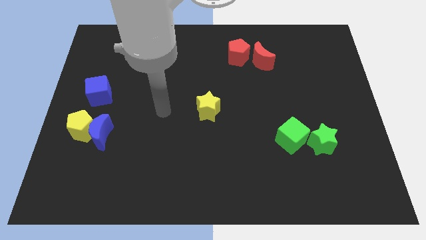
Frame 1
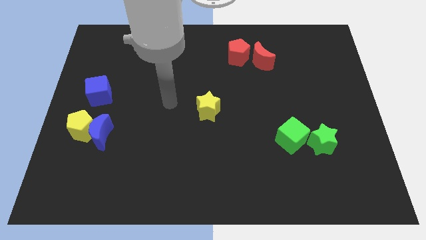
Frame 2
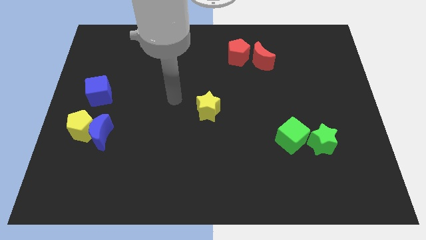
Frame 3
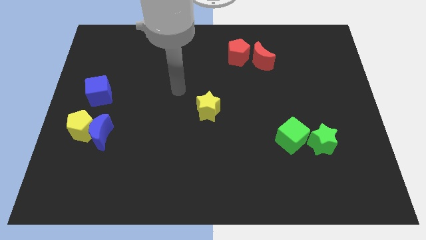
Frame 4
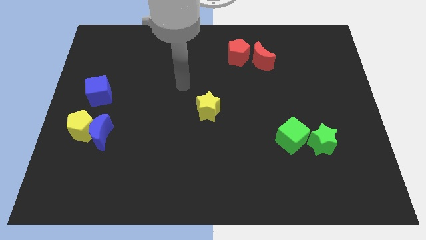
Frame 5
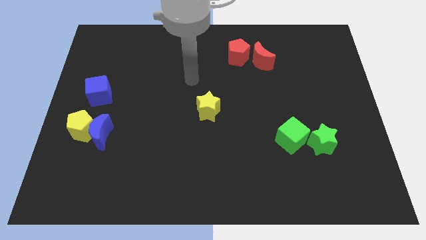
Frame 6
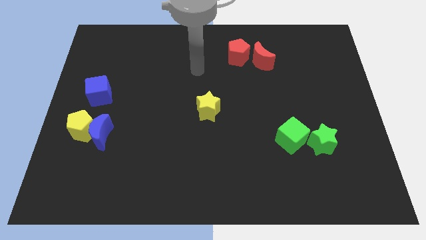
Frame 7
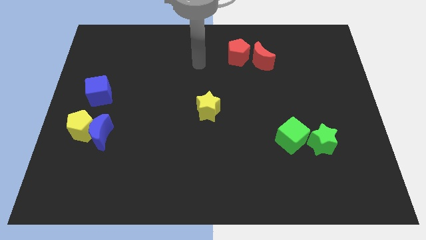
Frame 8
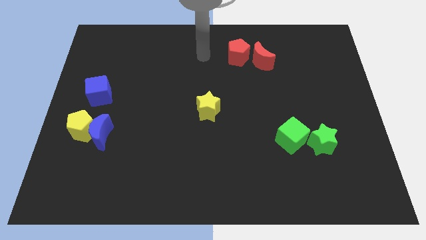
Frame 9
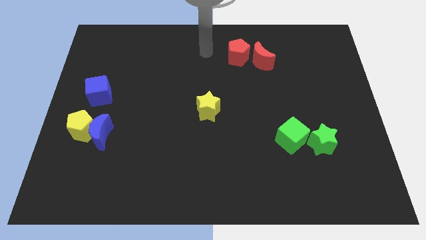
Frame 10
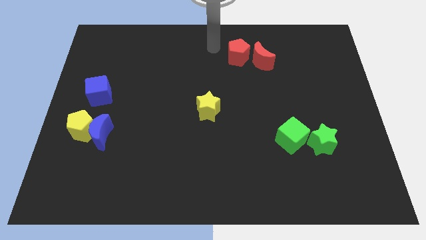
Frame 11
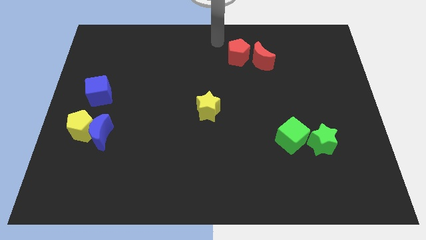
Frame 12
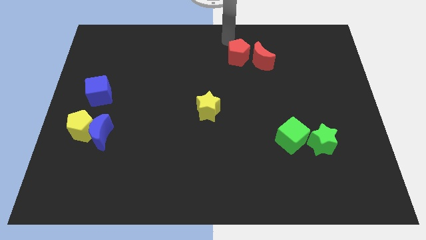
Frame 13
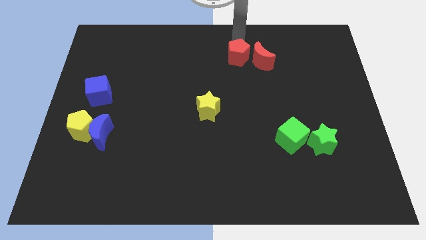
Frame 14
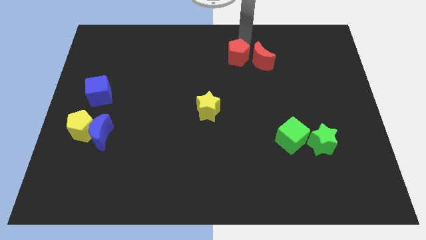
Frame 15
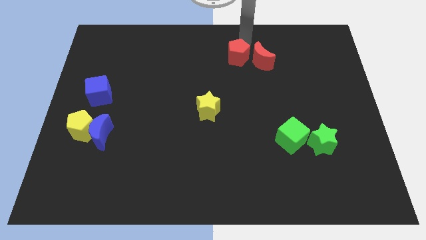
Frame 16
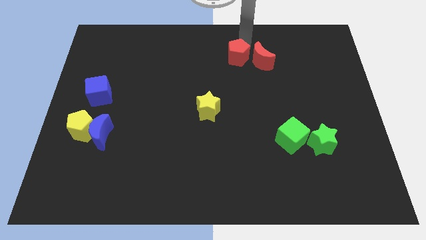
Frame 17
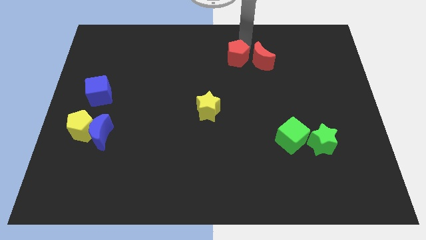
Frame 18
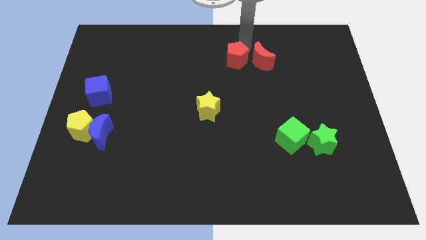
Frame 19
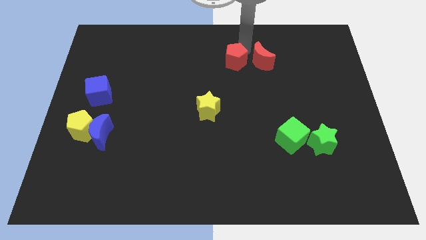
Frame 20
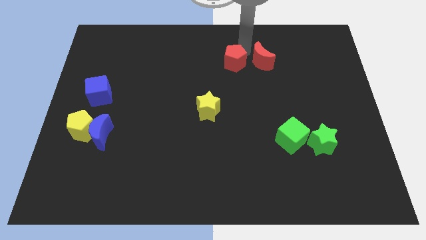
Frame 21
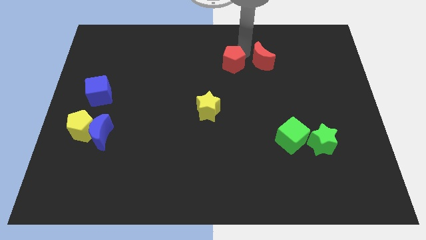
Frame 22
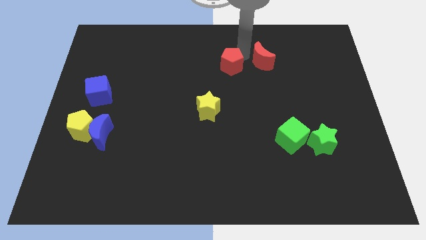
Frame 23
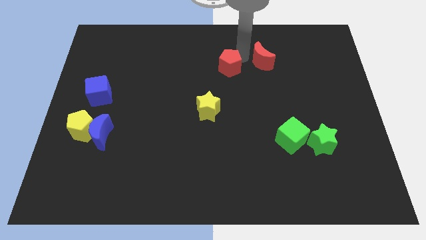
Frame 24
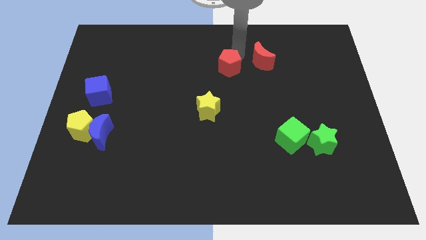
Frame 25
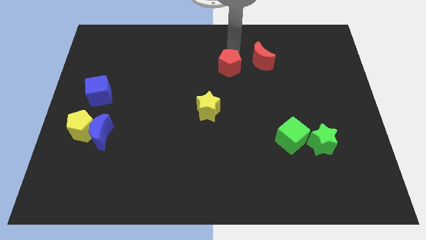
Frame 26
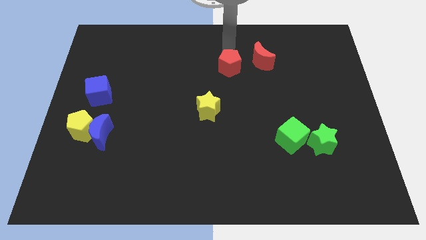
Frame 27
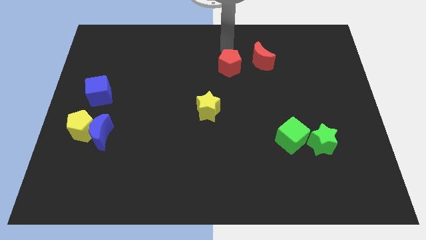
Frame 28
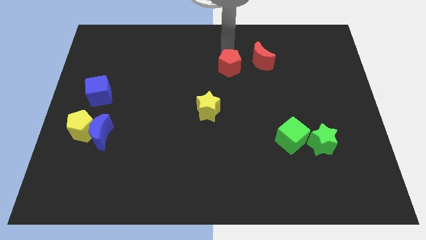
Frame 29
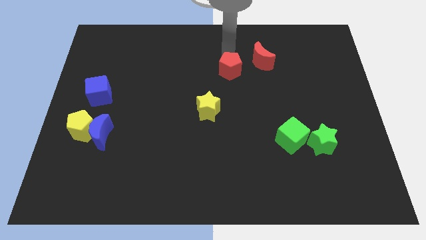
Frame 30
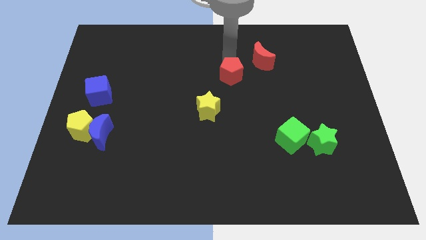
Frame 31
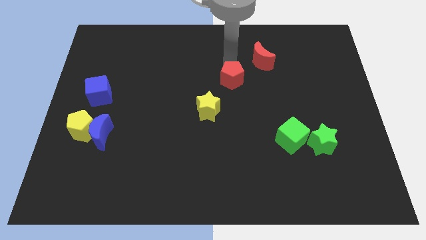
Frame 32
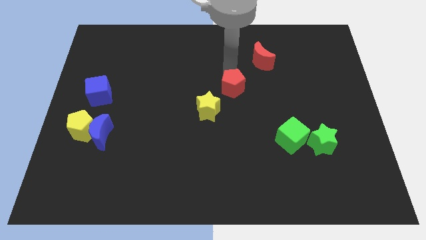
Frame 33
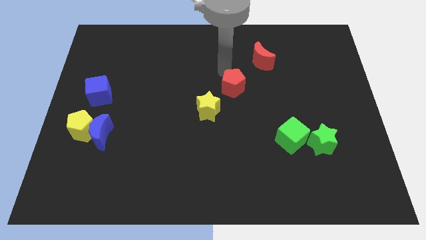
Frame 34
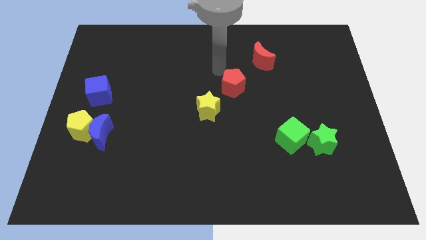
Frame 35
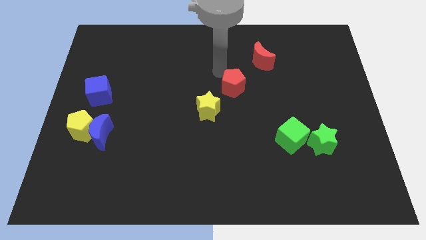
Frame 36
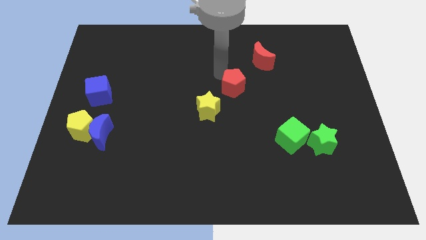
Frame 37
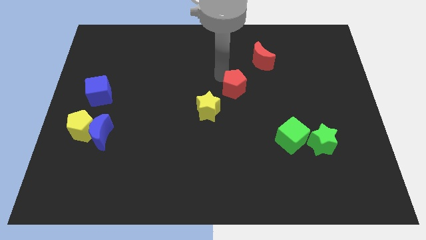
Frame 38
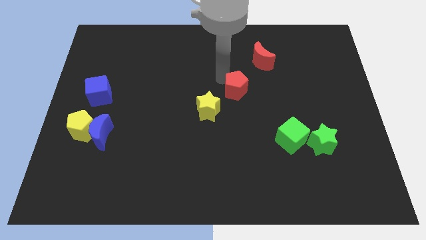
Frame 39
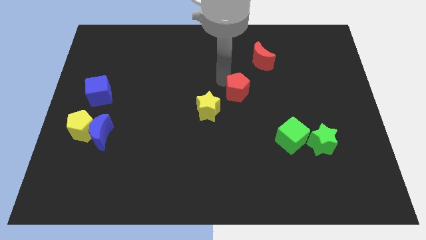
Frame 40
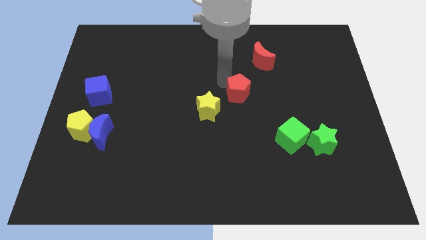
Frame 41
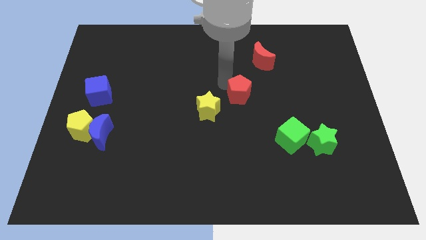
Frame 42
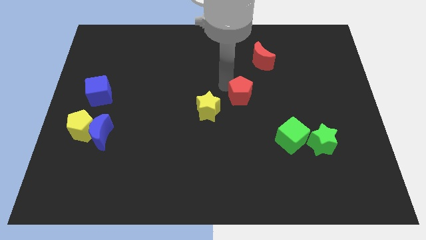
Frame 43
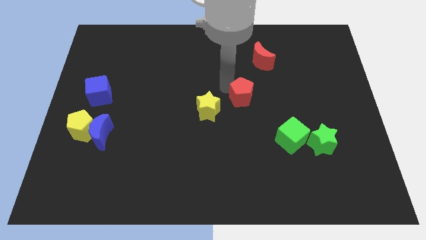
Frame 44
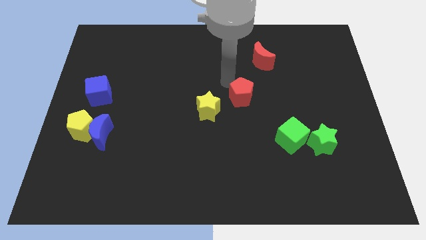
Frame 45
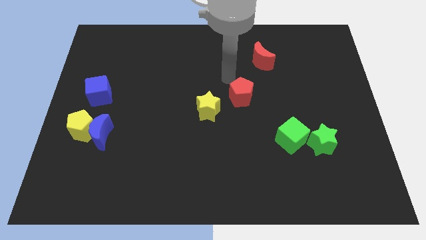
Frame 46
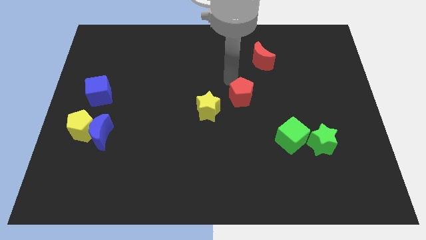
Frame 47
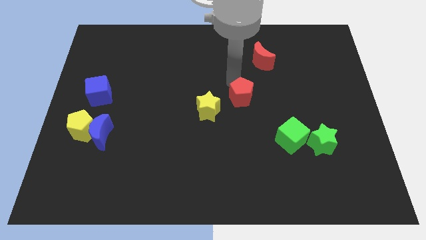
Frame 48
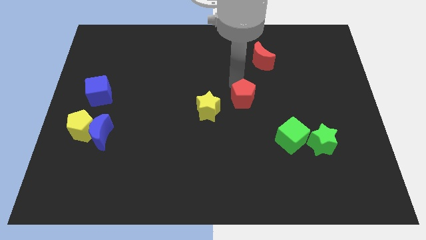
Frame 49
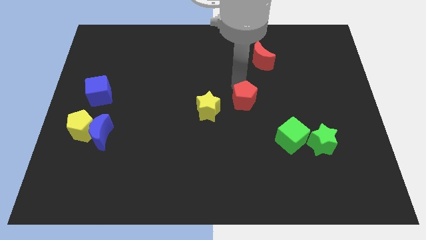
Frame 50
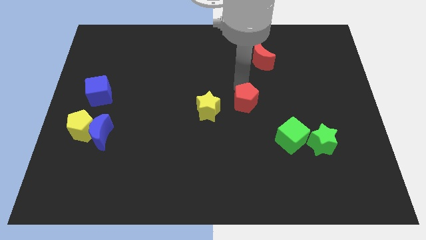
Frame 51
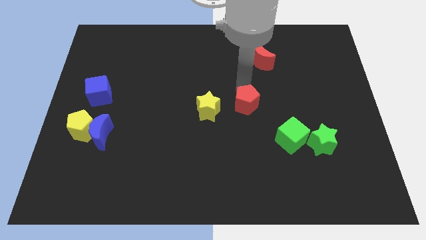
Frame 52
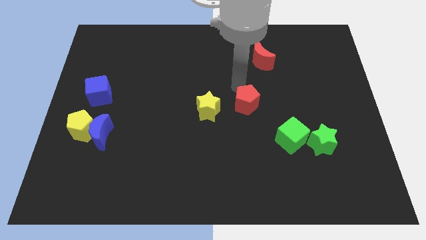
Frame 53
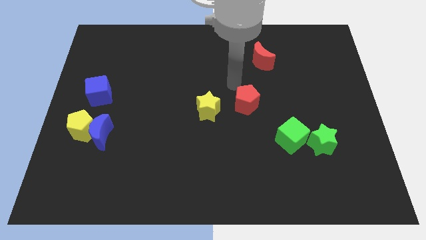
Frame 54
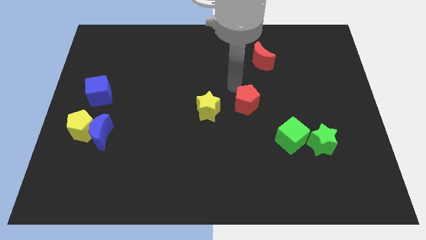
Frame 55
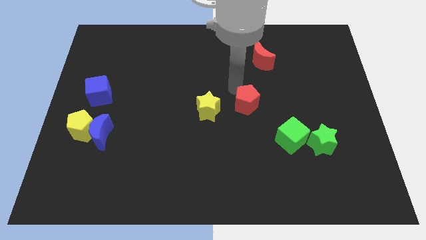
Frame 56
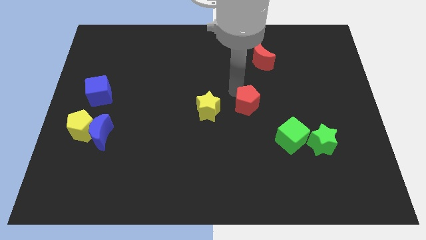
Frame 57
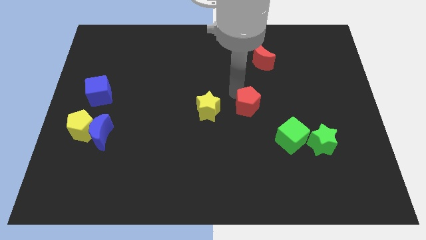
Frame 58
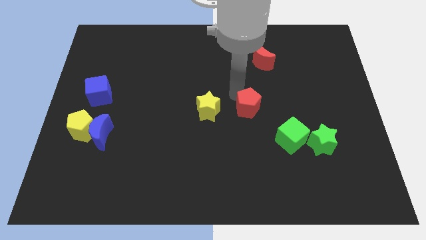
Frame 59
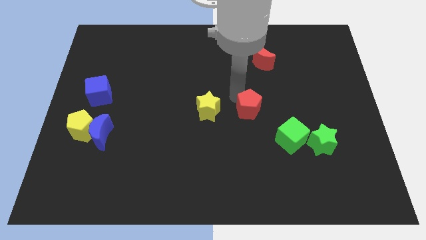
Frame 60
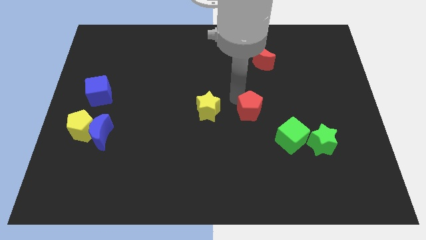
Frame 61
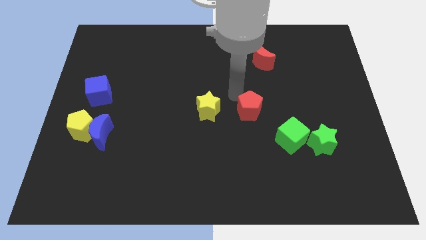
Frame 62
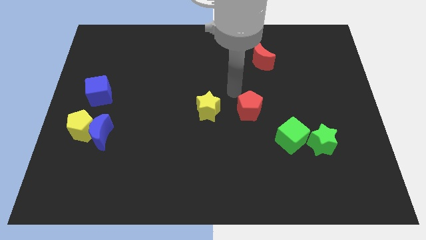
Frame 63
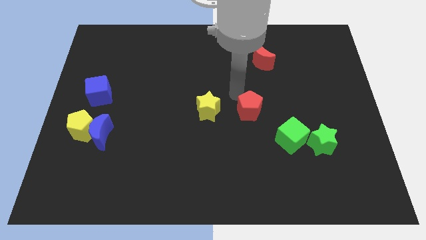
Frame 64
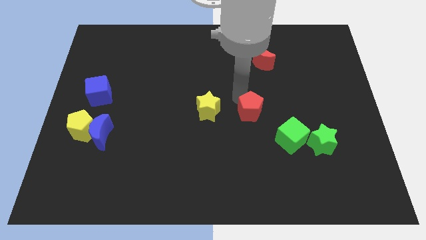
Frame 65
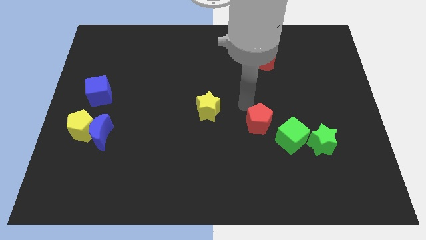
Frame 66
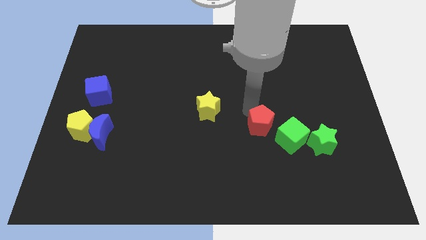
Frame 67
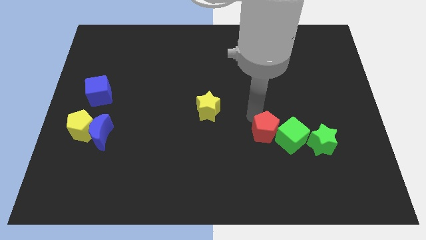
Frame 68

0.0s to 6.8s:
move the red pentagon just left of the green star

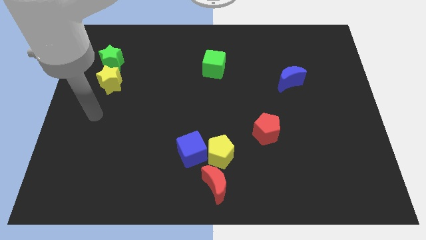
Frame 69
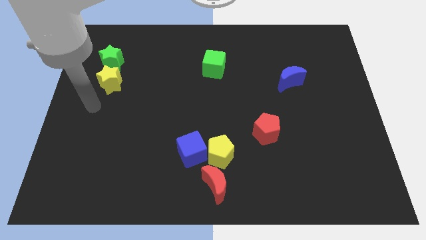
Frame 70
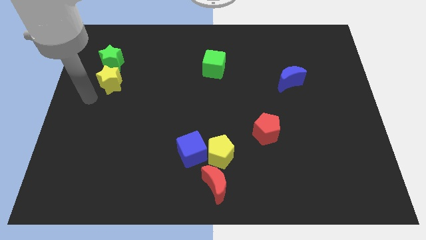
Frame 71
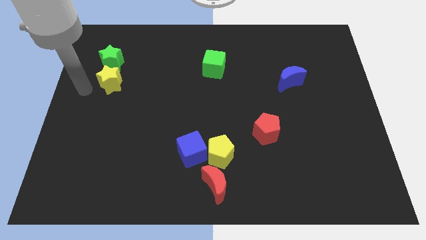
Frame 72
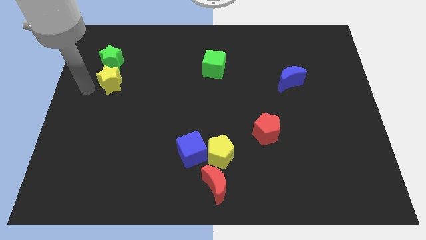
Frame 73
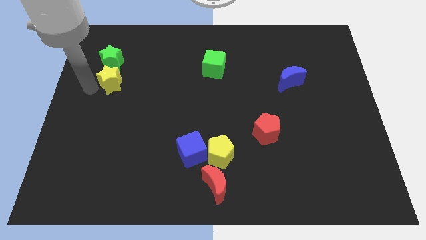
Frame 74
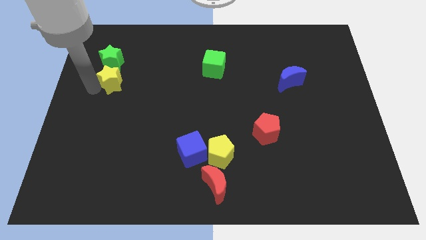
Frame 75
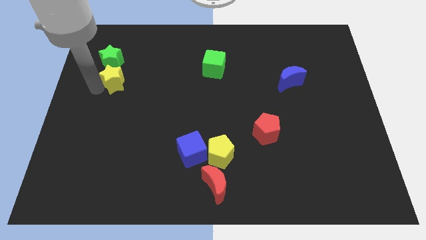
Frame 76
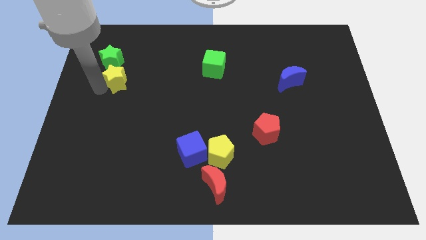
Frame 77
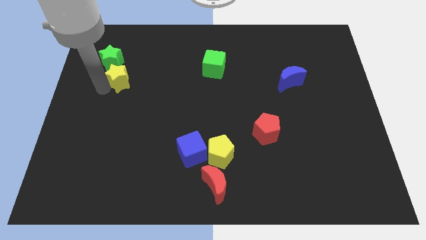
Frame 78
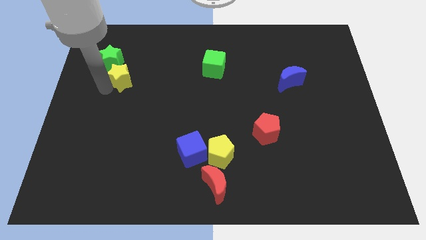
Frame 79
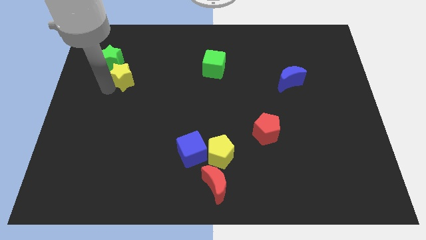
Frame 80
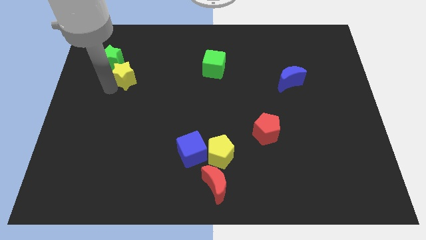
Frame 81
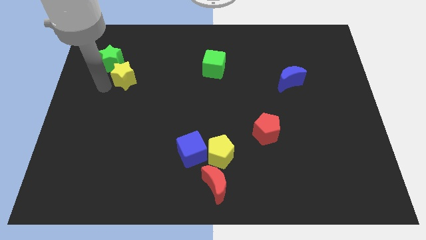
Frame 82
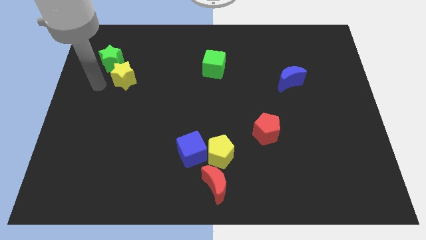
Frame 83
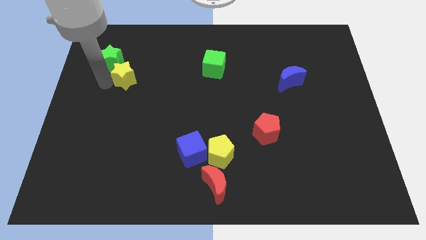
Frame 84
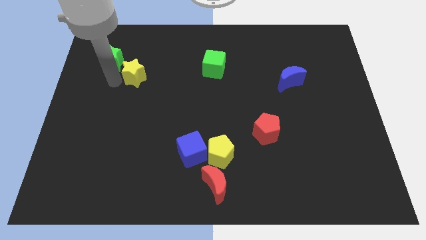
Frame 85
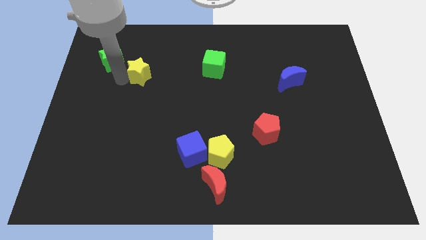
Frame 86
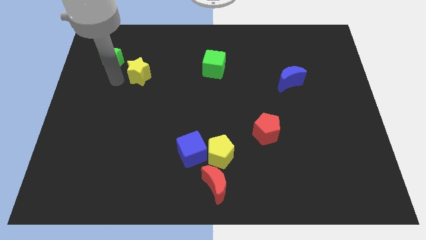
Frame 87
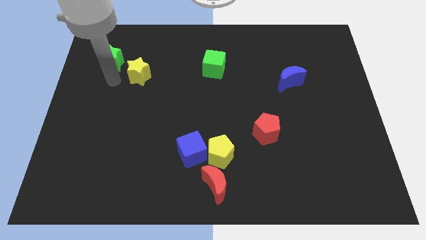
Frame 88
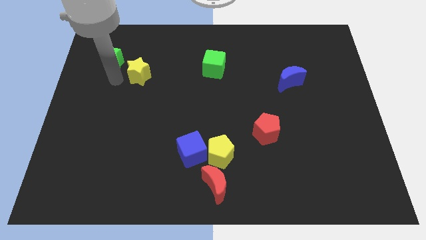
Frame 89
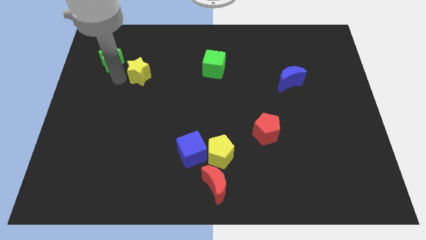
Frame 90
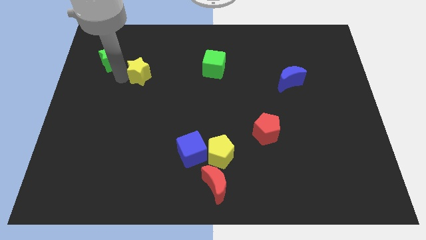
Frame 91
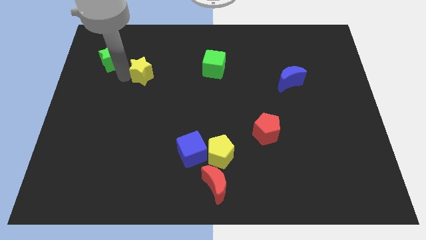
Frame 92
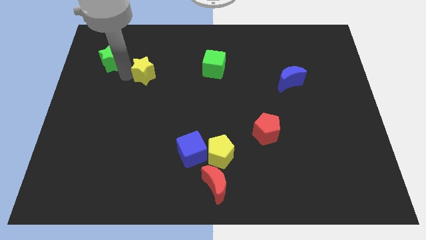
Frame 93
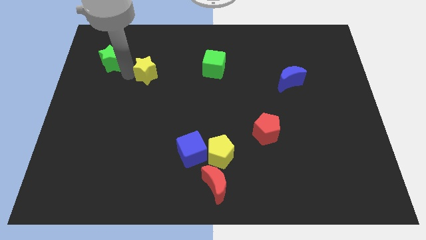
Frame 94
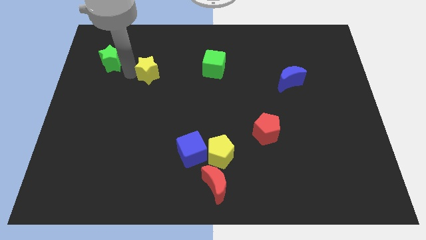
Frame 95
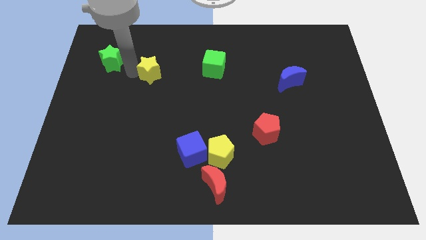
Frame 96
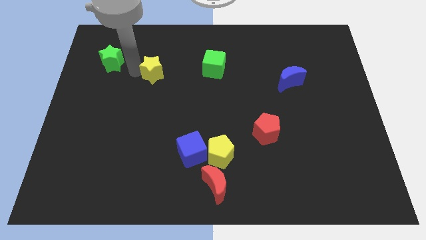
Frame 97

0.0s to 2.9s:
push the yellow star to the left of the green cube
